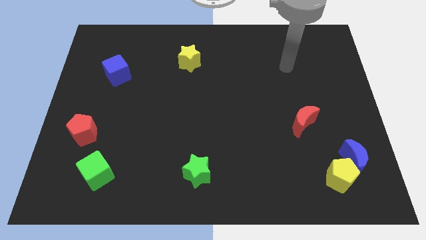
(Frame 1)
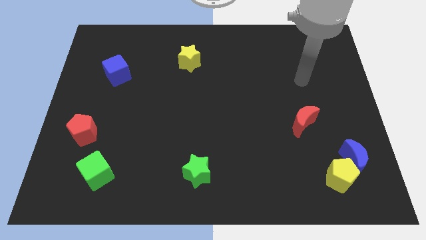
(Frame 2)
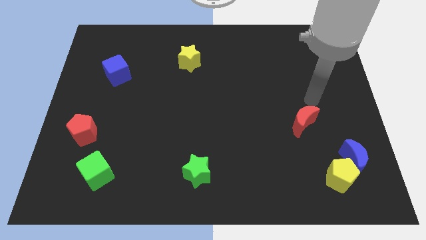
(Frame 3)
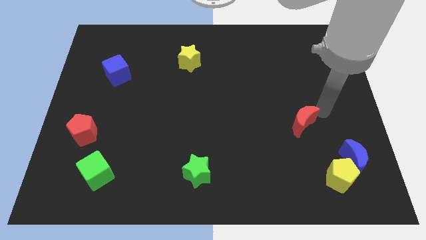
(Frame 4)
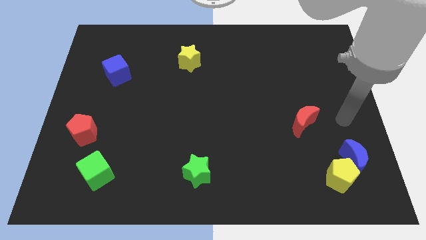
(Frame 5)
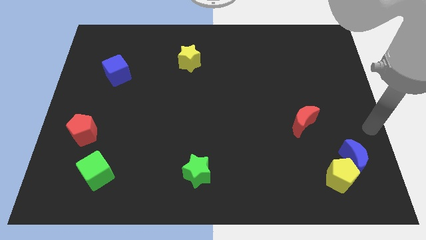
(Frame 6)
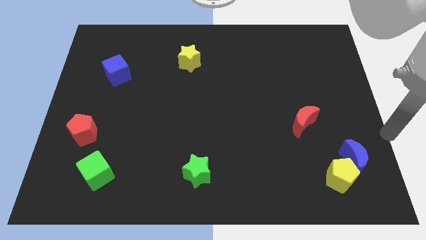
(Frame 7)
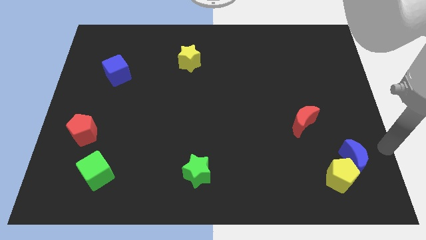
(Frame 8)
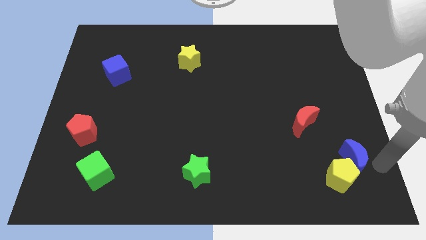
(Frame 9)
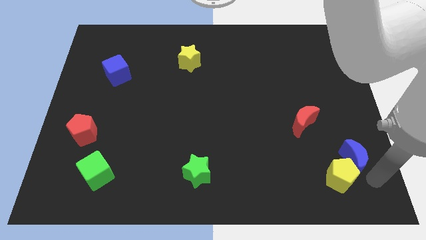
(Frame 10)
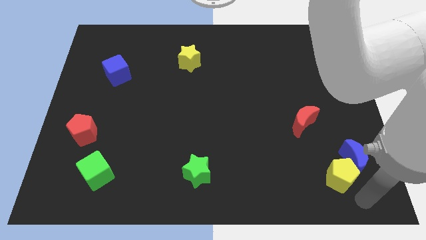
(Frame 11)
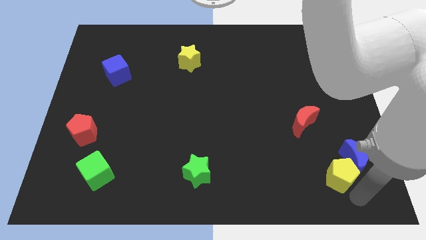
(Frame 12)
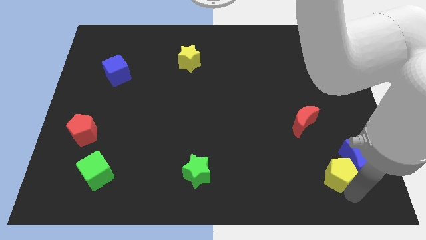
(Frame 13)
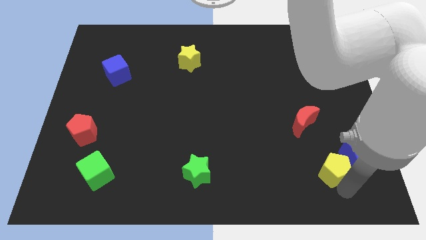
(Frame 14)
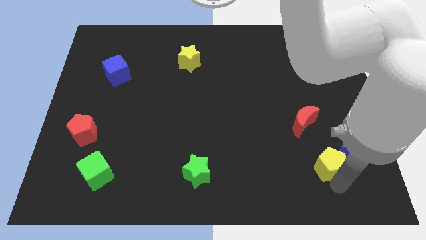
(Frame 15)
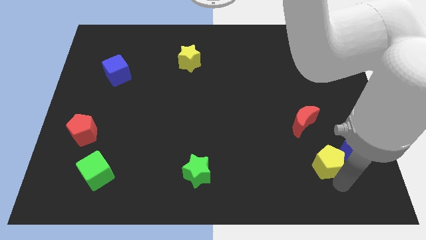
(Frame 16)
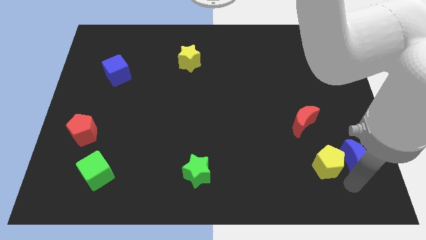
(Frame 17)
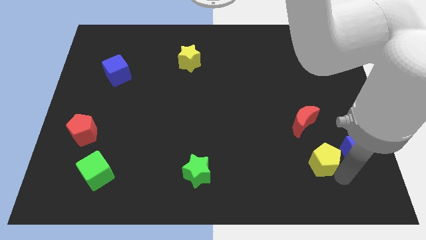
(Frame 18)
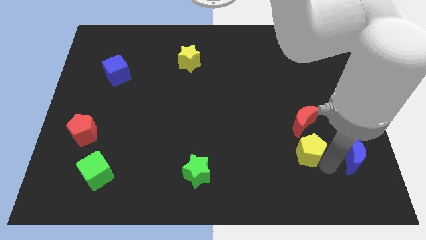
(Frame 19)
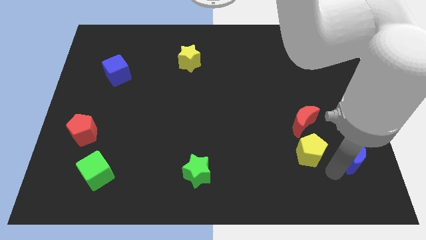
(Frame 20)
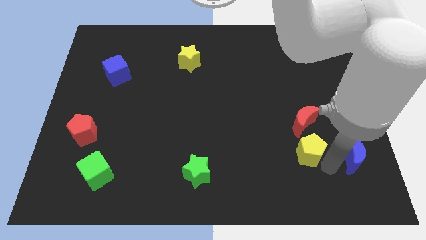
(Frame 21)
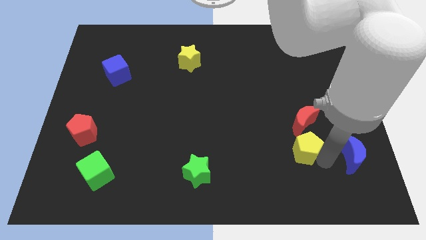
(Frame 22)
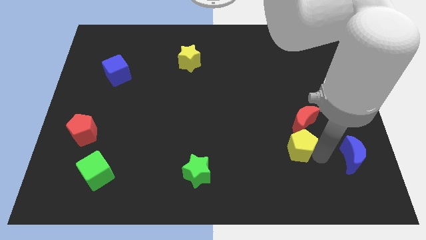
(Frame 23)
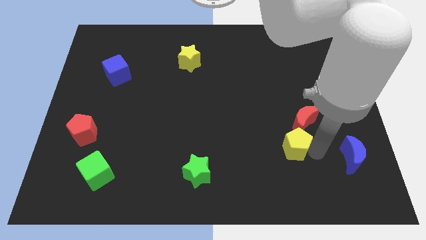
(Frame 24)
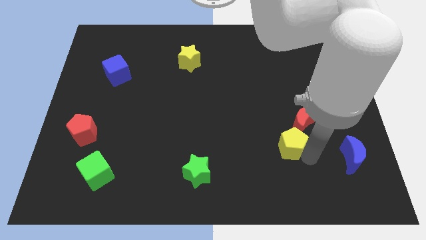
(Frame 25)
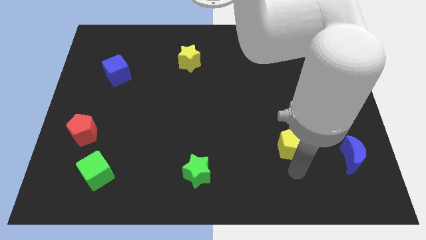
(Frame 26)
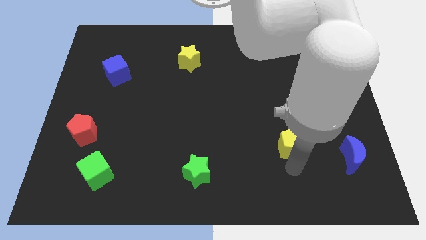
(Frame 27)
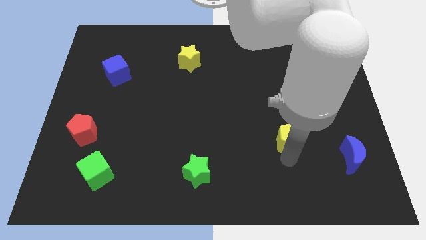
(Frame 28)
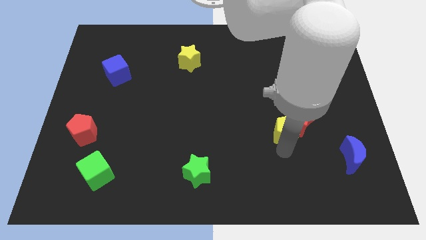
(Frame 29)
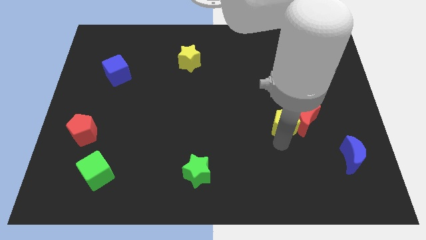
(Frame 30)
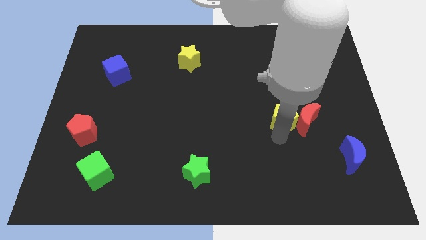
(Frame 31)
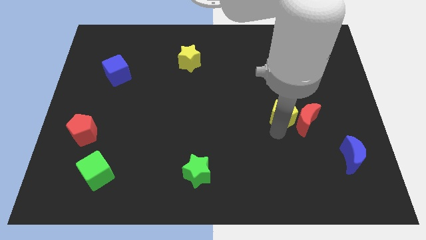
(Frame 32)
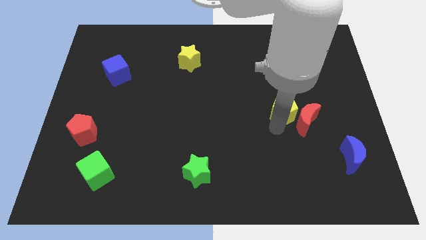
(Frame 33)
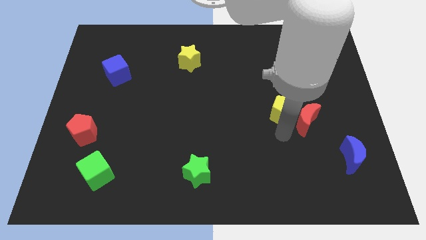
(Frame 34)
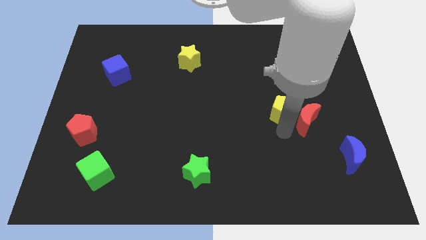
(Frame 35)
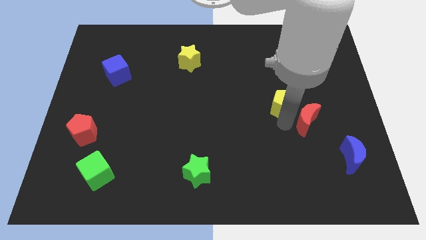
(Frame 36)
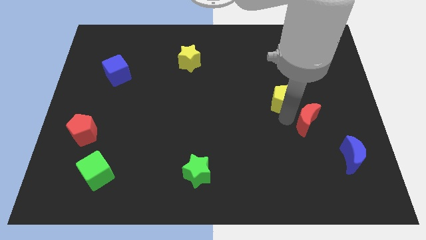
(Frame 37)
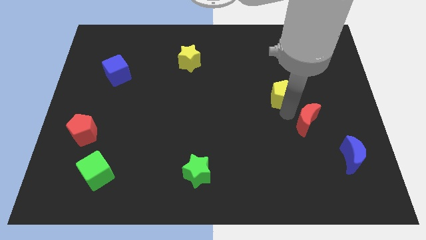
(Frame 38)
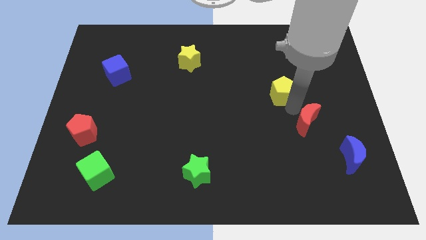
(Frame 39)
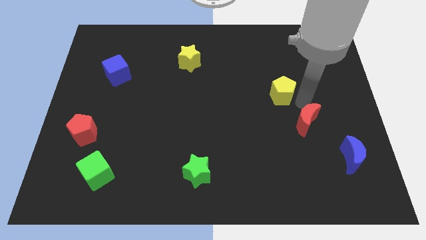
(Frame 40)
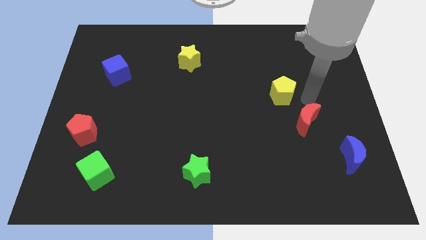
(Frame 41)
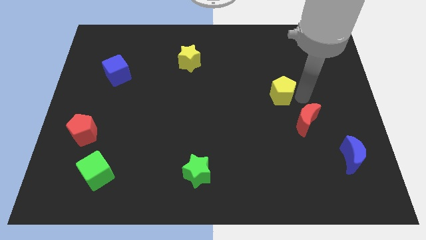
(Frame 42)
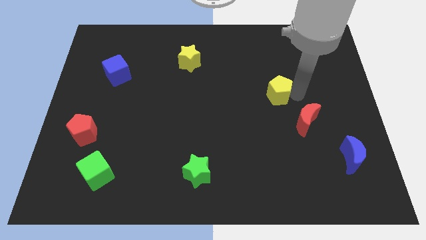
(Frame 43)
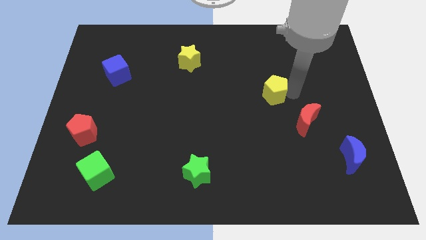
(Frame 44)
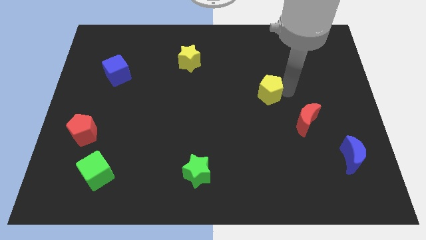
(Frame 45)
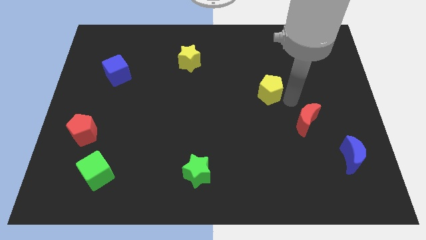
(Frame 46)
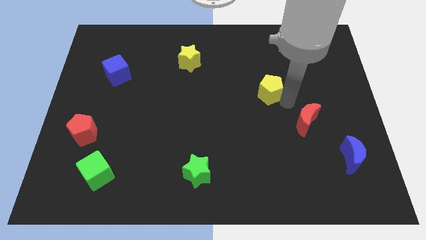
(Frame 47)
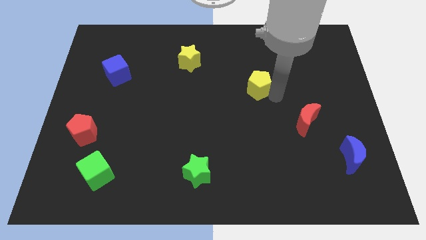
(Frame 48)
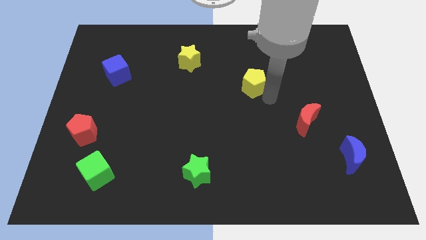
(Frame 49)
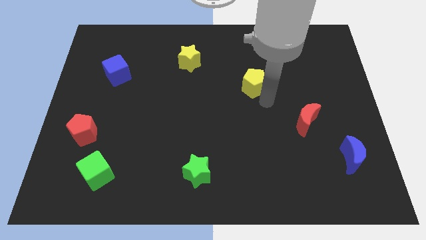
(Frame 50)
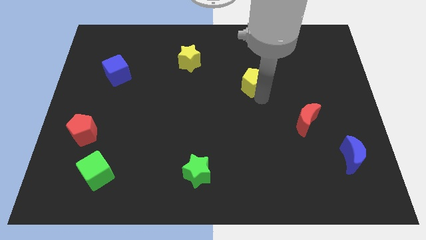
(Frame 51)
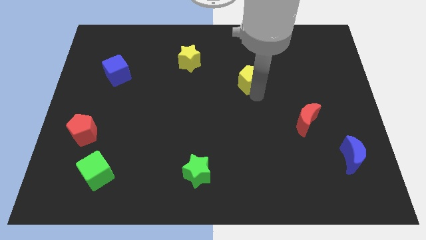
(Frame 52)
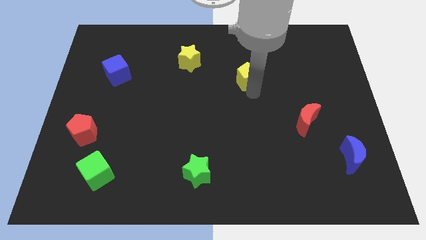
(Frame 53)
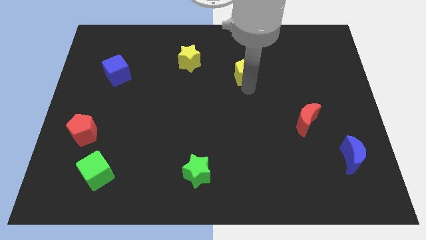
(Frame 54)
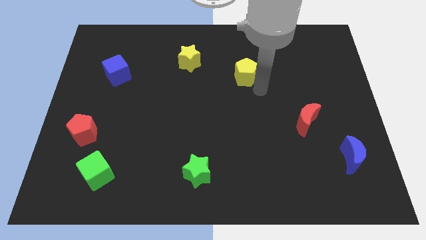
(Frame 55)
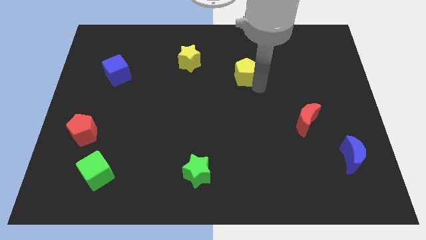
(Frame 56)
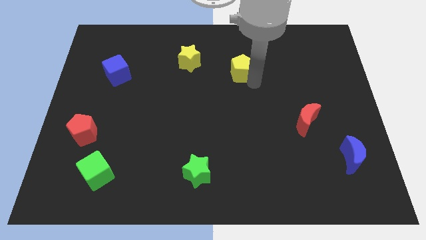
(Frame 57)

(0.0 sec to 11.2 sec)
slide the yellow pentagon just right of the yellow star
